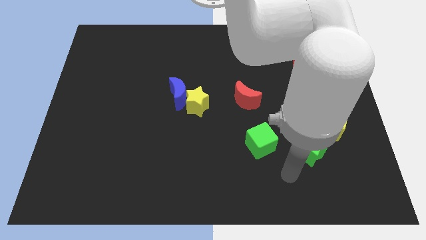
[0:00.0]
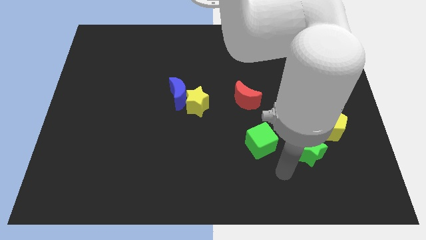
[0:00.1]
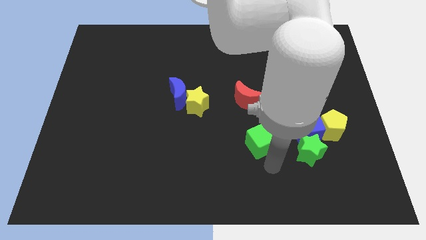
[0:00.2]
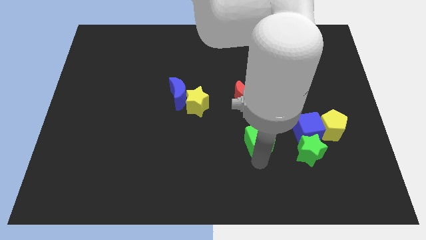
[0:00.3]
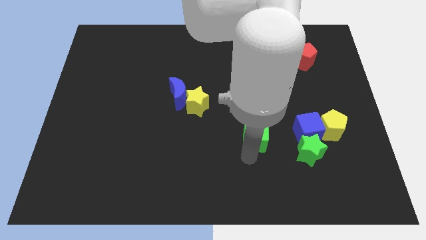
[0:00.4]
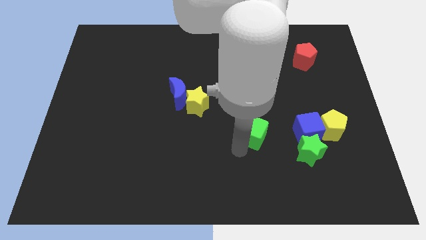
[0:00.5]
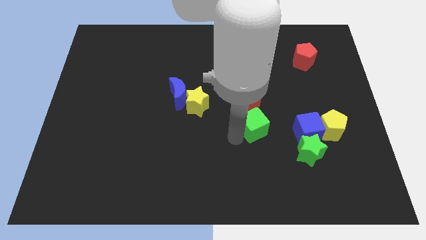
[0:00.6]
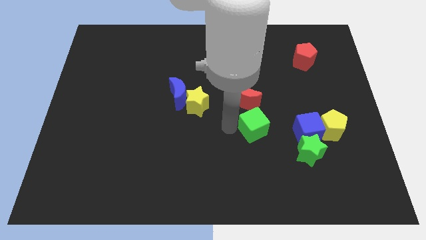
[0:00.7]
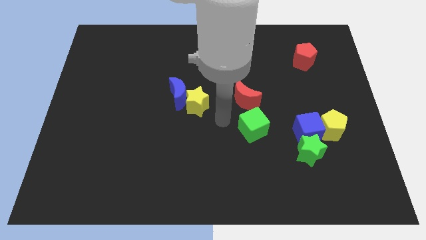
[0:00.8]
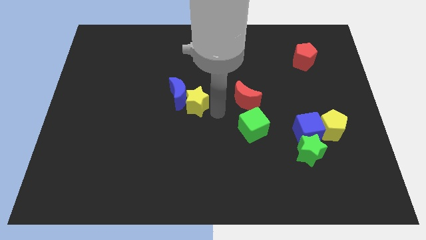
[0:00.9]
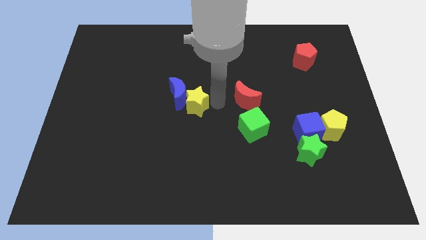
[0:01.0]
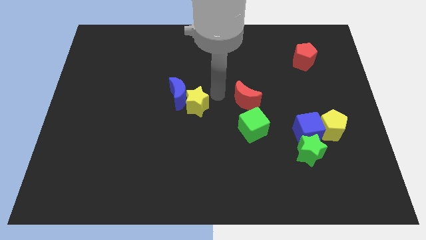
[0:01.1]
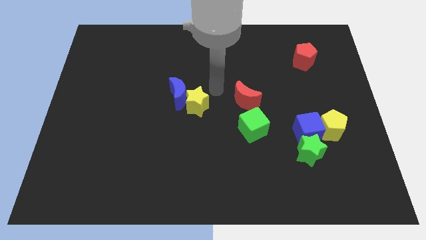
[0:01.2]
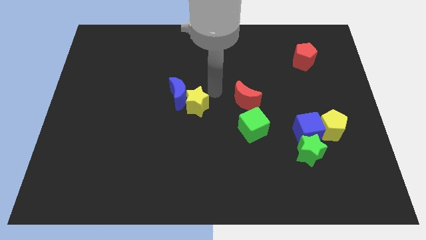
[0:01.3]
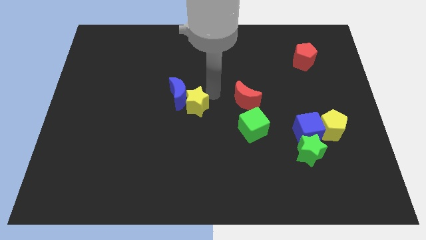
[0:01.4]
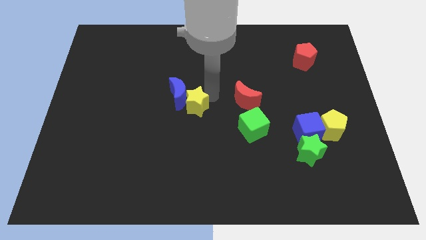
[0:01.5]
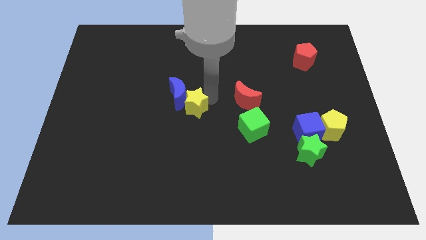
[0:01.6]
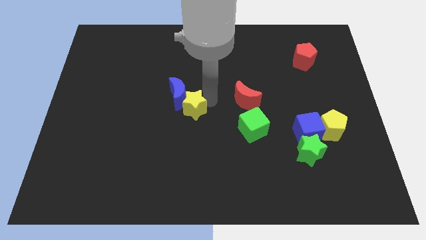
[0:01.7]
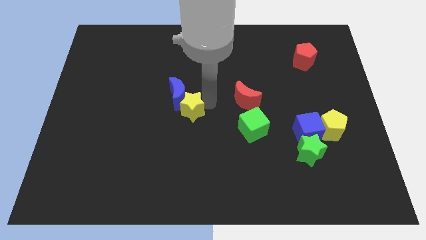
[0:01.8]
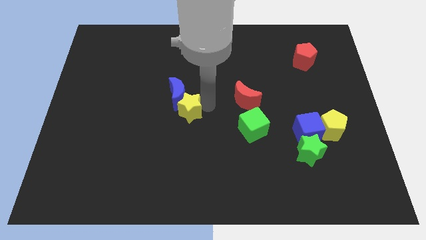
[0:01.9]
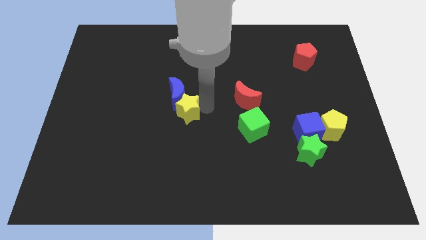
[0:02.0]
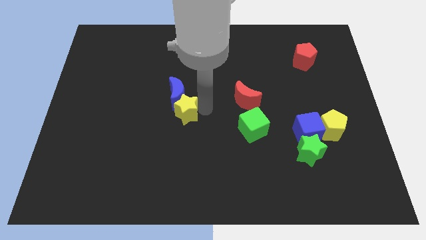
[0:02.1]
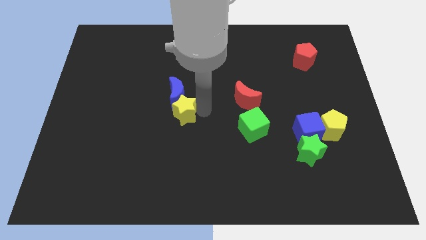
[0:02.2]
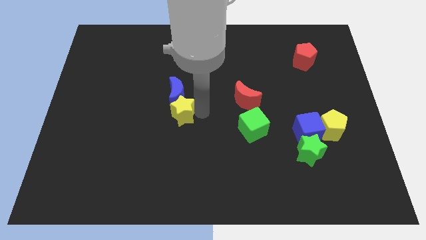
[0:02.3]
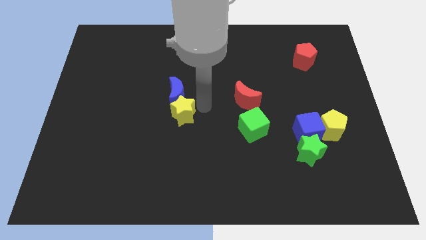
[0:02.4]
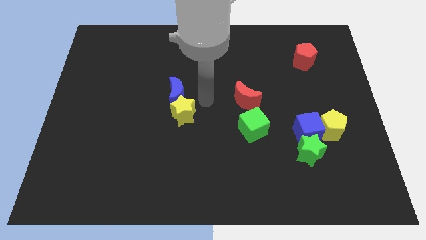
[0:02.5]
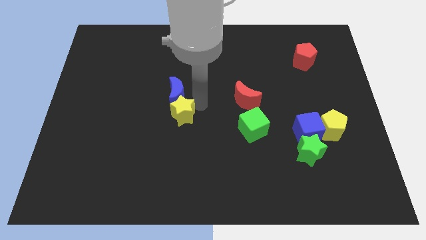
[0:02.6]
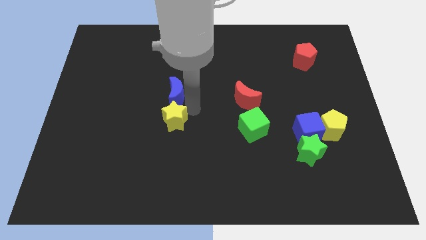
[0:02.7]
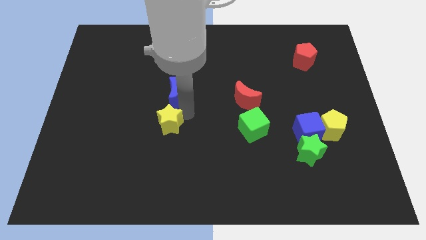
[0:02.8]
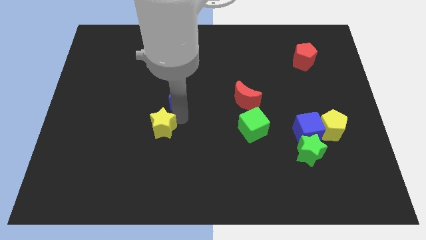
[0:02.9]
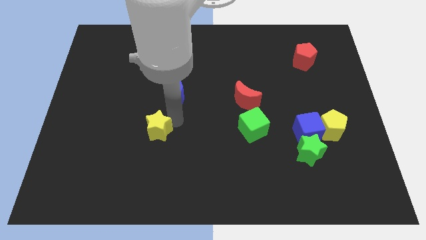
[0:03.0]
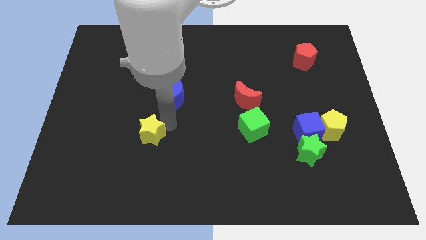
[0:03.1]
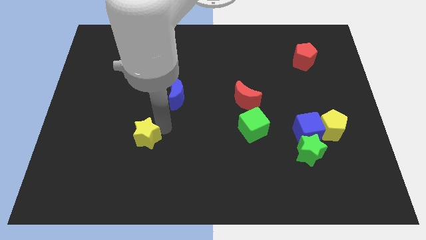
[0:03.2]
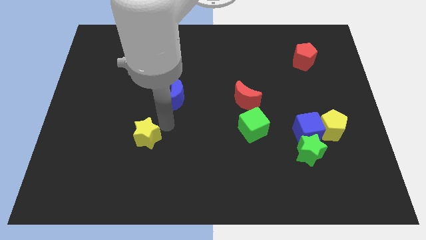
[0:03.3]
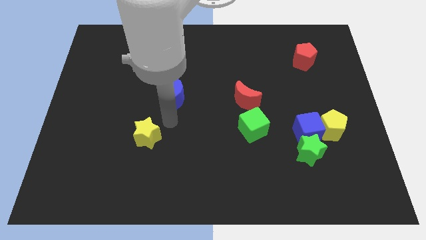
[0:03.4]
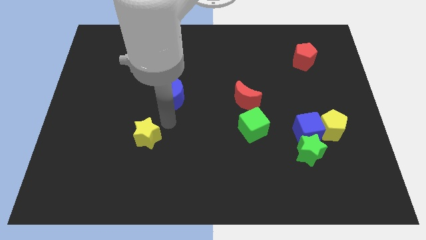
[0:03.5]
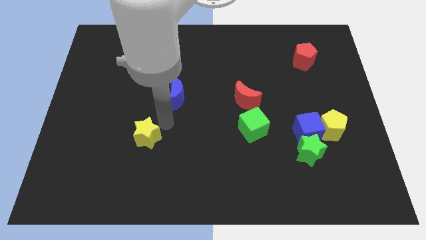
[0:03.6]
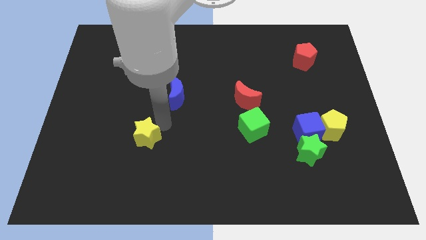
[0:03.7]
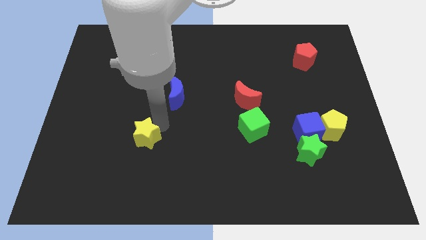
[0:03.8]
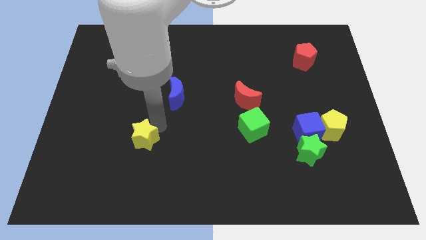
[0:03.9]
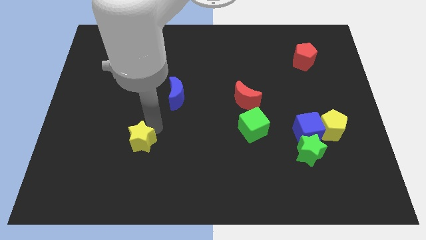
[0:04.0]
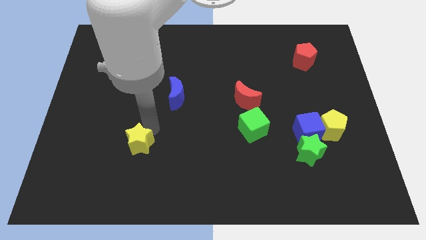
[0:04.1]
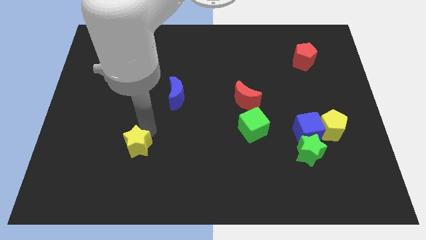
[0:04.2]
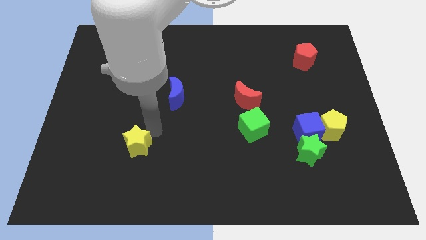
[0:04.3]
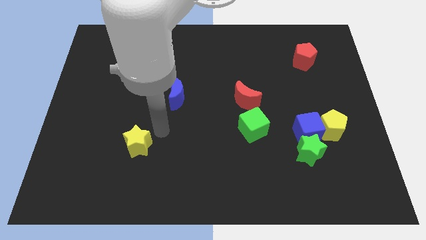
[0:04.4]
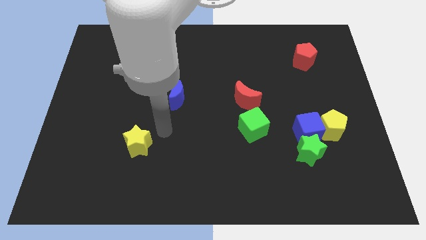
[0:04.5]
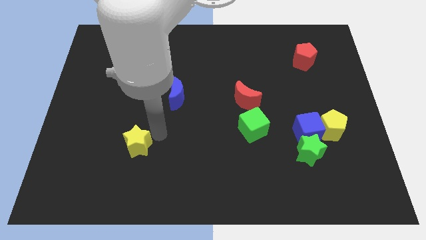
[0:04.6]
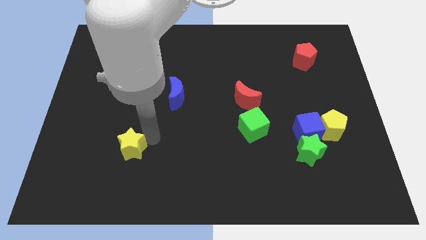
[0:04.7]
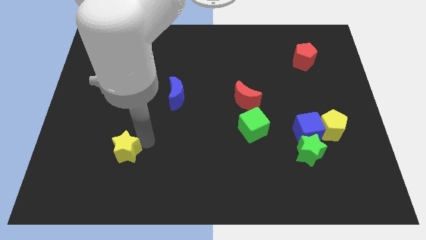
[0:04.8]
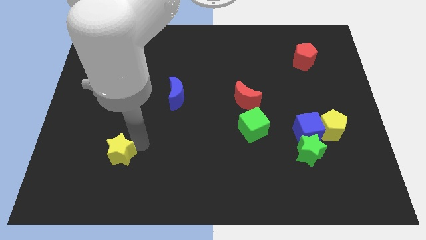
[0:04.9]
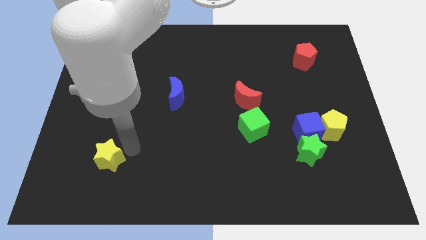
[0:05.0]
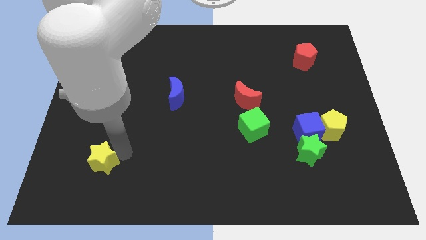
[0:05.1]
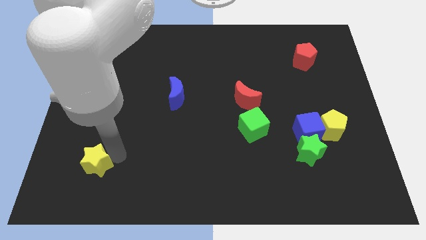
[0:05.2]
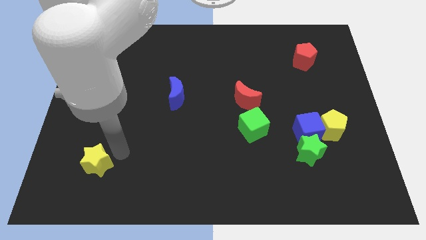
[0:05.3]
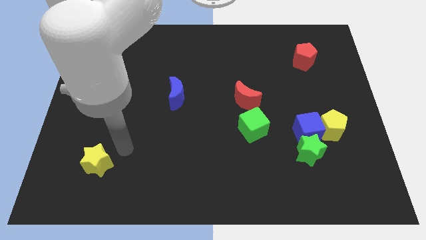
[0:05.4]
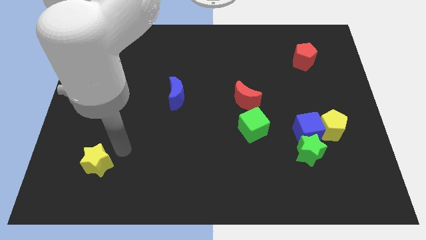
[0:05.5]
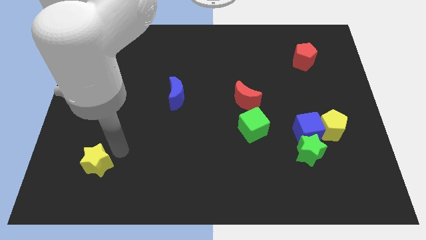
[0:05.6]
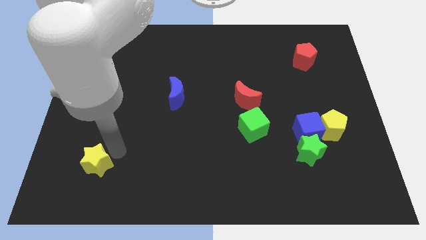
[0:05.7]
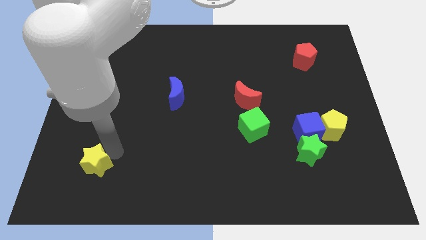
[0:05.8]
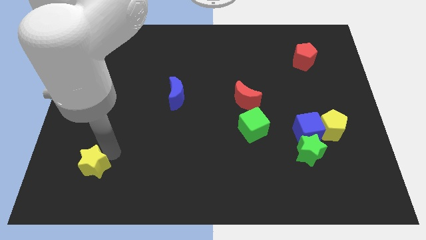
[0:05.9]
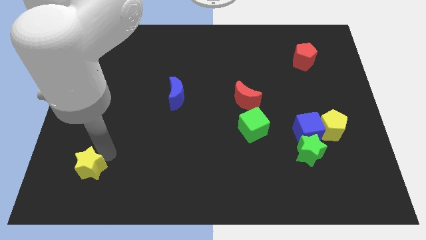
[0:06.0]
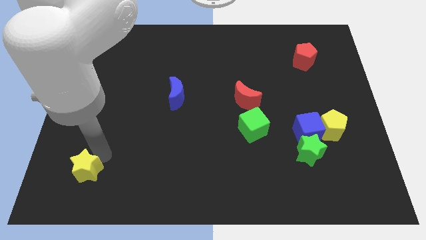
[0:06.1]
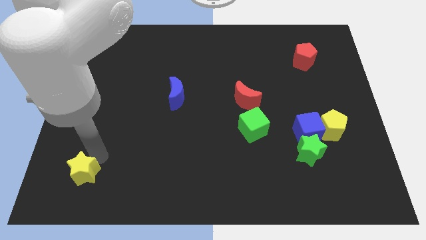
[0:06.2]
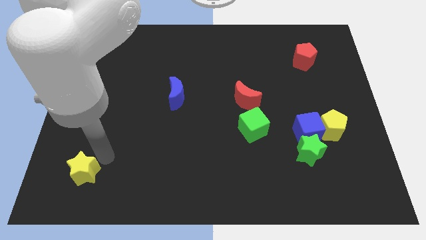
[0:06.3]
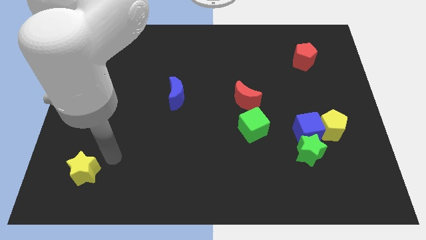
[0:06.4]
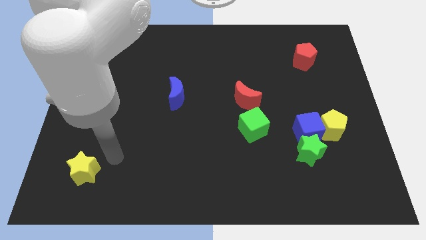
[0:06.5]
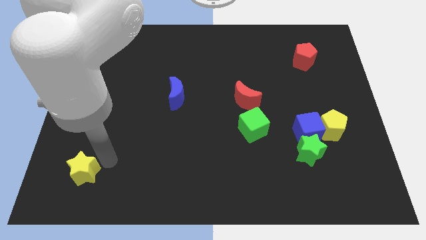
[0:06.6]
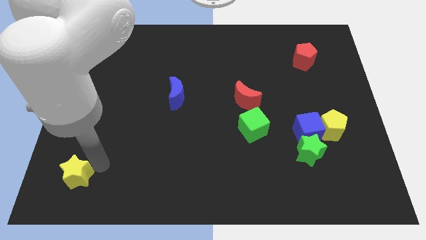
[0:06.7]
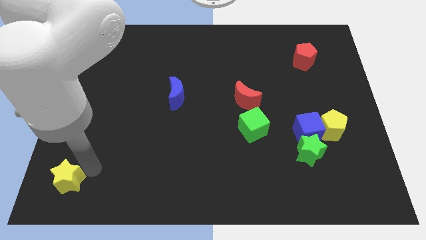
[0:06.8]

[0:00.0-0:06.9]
move the yellow star to the lower left corner
